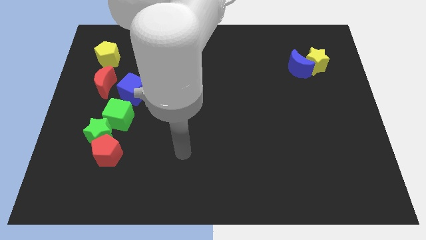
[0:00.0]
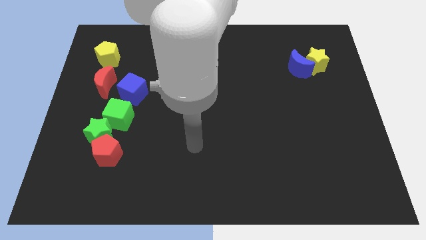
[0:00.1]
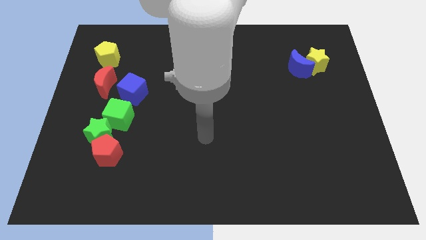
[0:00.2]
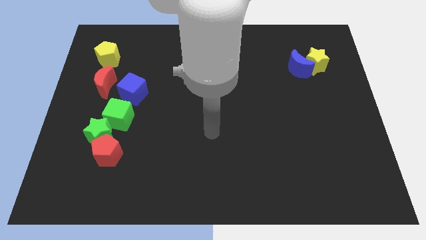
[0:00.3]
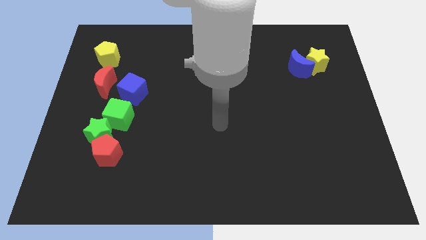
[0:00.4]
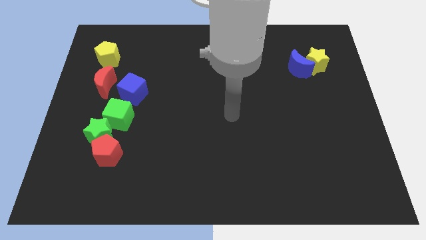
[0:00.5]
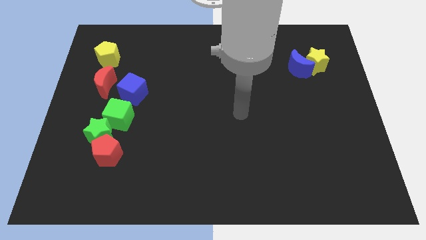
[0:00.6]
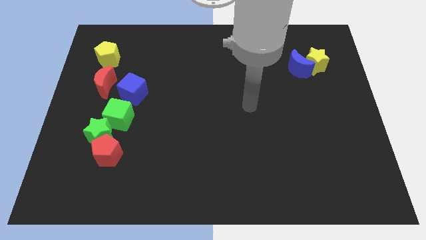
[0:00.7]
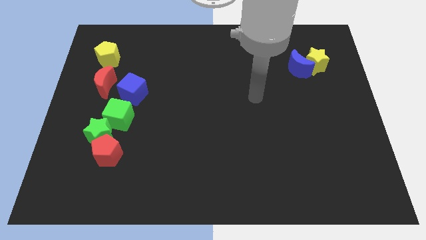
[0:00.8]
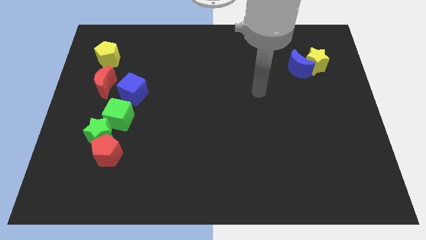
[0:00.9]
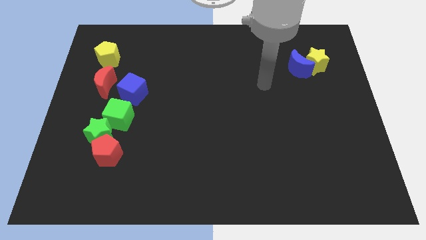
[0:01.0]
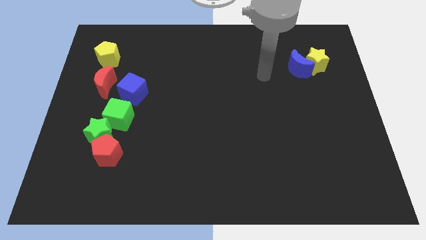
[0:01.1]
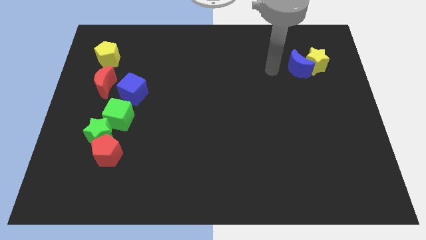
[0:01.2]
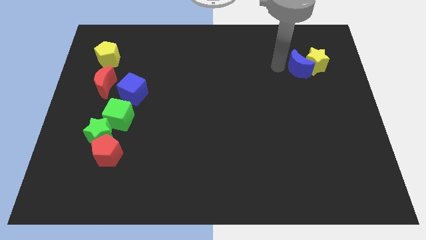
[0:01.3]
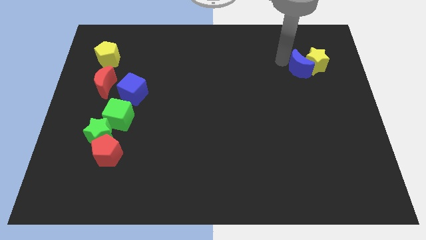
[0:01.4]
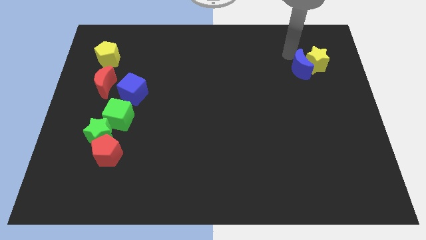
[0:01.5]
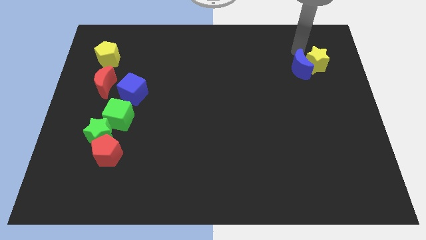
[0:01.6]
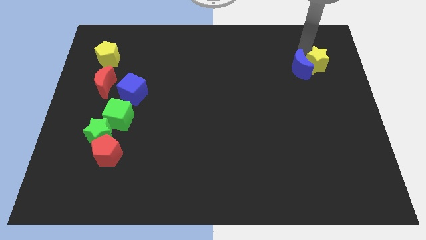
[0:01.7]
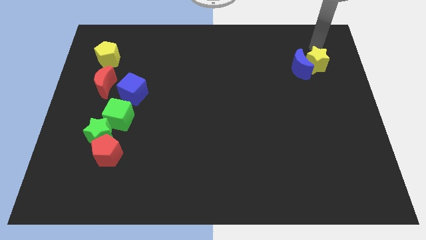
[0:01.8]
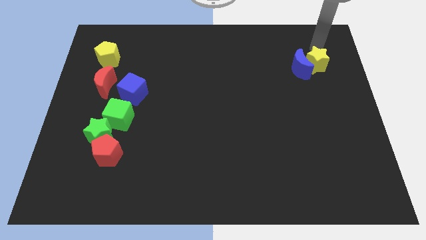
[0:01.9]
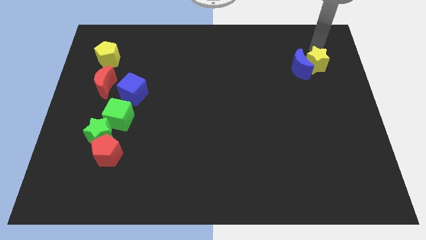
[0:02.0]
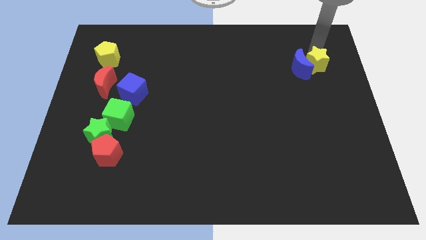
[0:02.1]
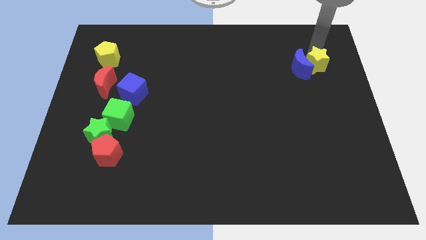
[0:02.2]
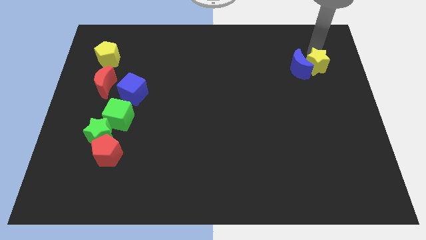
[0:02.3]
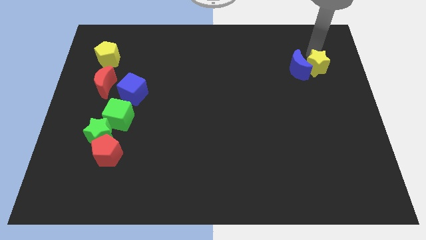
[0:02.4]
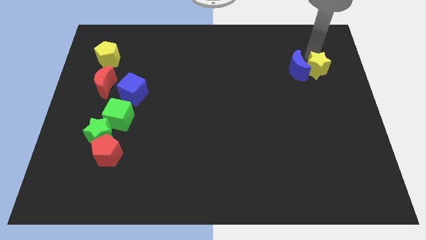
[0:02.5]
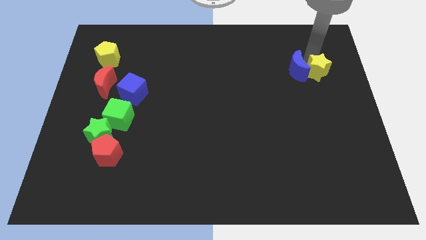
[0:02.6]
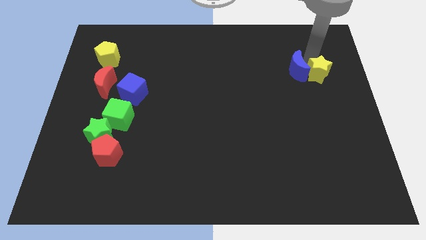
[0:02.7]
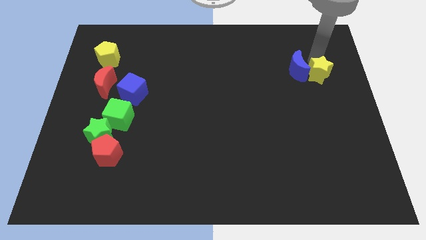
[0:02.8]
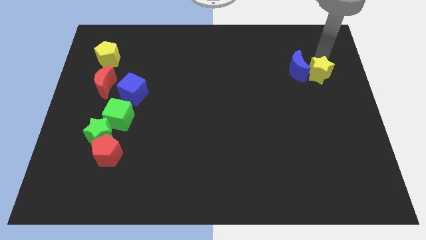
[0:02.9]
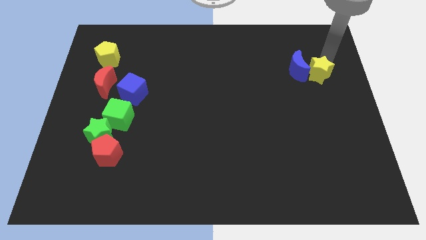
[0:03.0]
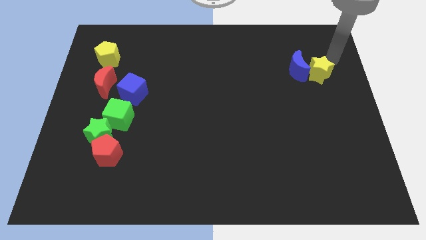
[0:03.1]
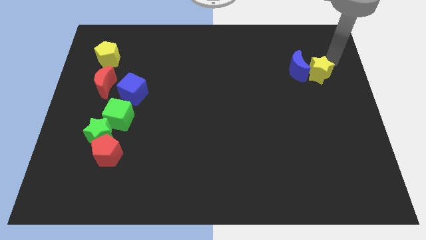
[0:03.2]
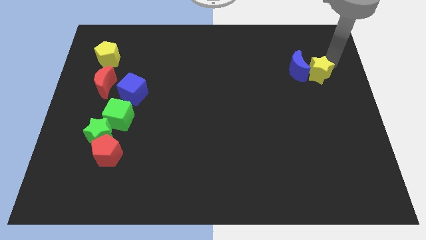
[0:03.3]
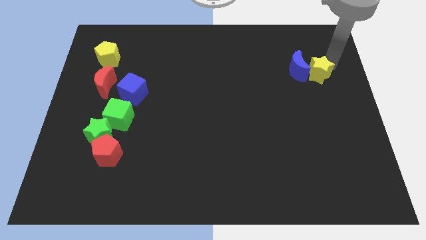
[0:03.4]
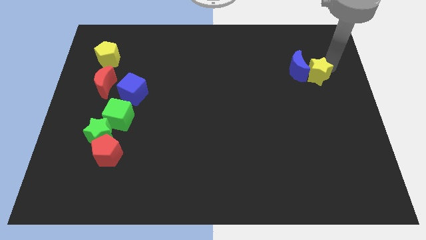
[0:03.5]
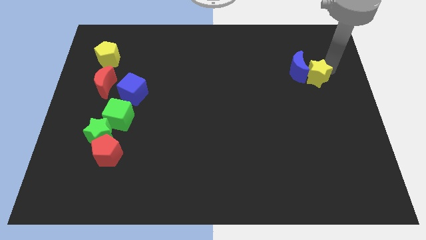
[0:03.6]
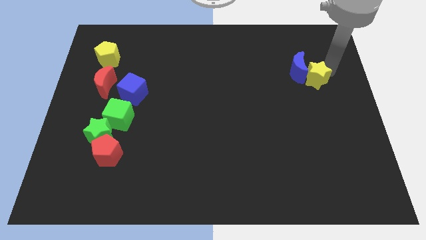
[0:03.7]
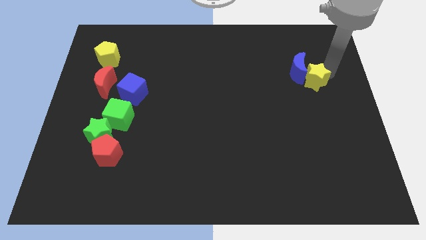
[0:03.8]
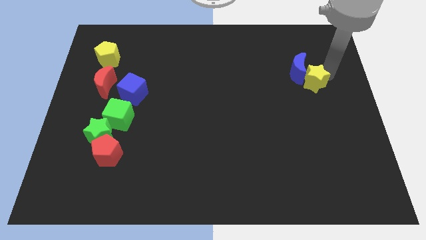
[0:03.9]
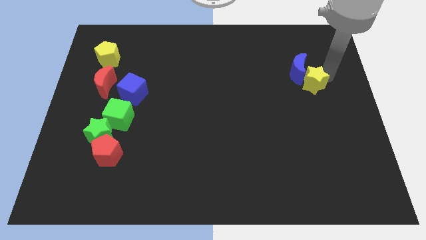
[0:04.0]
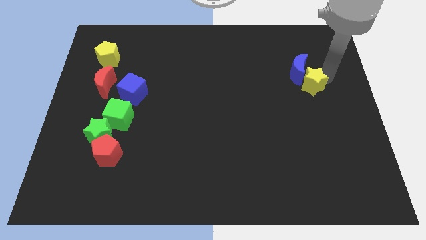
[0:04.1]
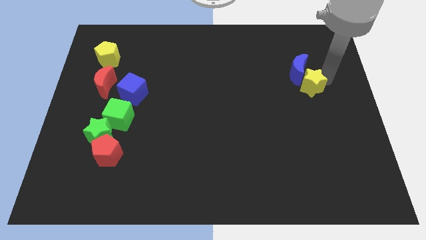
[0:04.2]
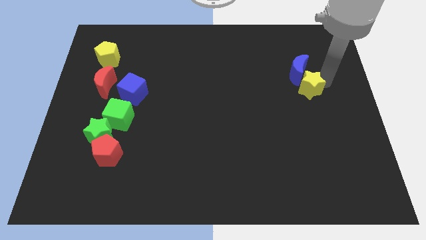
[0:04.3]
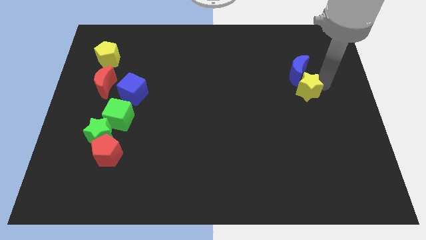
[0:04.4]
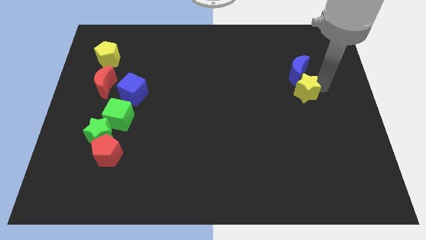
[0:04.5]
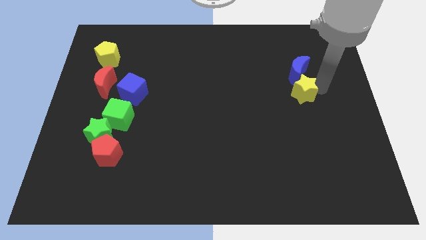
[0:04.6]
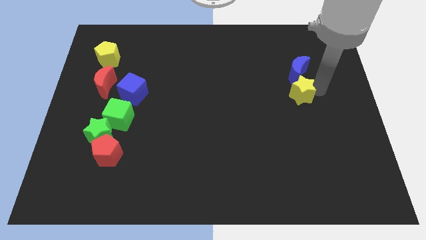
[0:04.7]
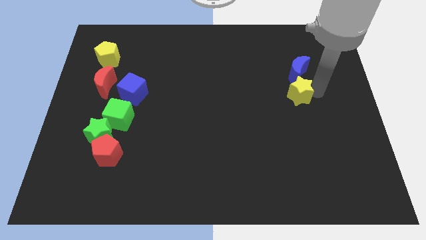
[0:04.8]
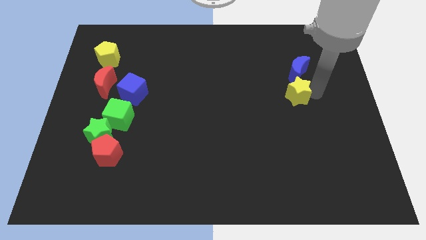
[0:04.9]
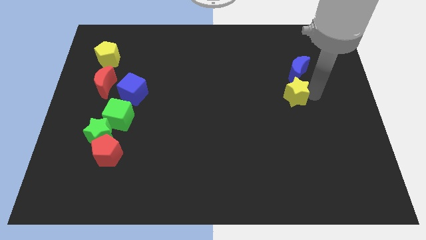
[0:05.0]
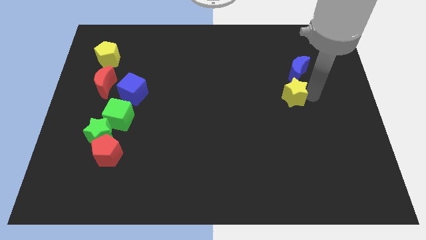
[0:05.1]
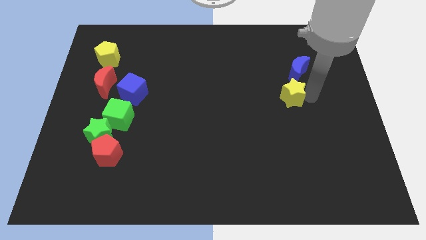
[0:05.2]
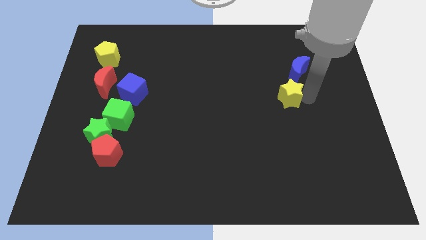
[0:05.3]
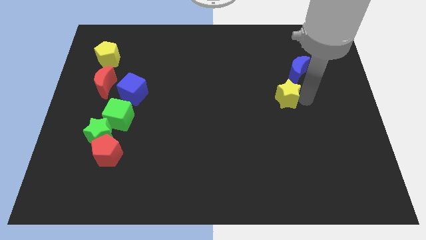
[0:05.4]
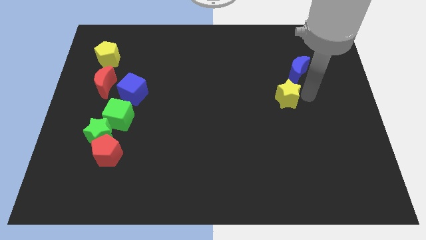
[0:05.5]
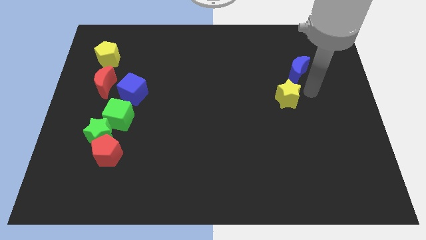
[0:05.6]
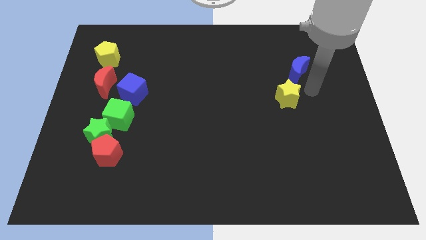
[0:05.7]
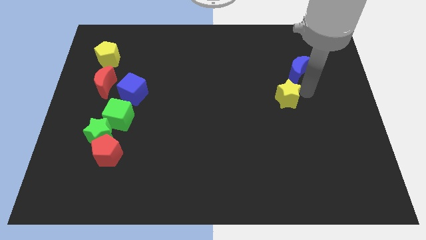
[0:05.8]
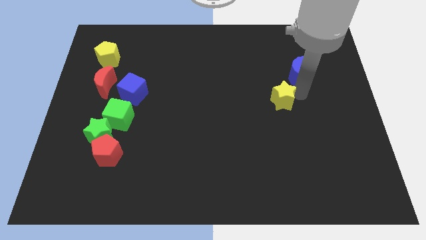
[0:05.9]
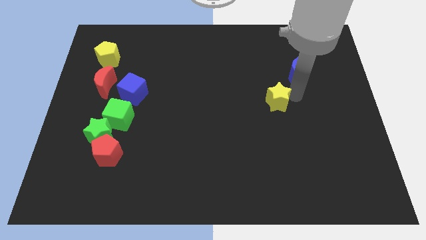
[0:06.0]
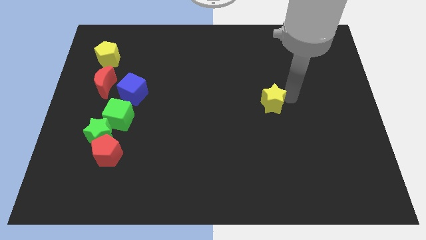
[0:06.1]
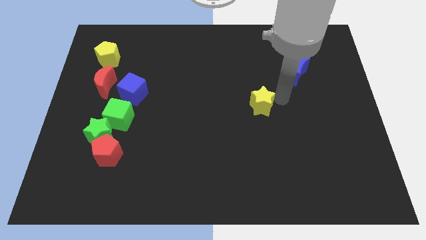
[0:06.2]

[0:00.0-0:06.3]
push the yellow star diagonally downwards and left

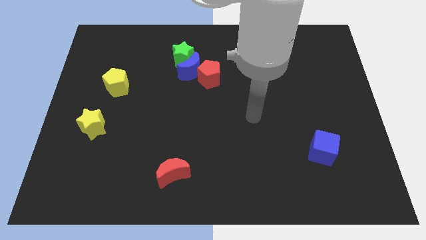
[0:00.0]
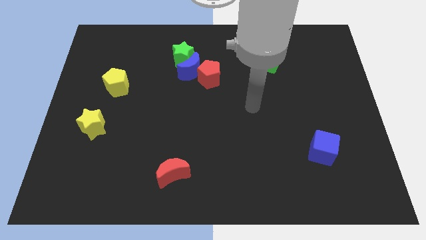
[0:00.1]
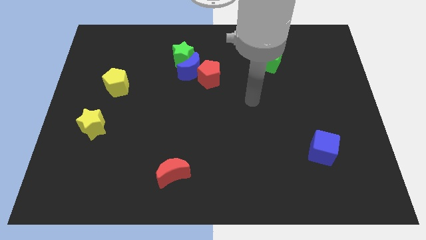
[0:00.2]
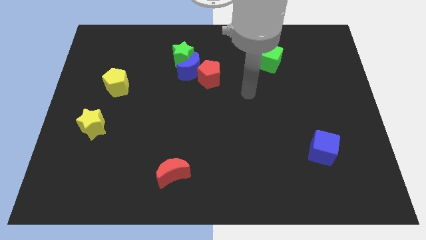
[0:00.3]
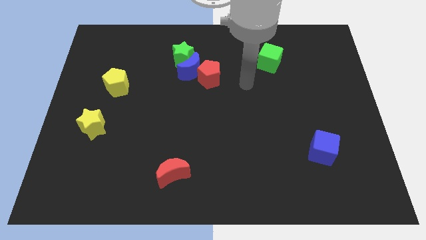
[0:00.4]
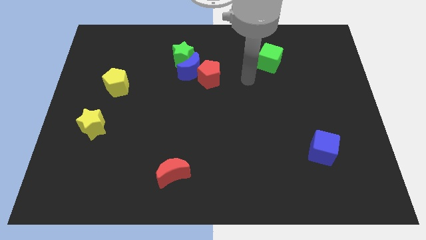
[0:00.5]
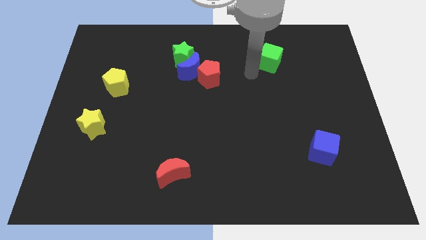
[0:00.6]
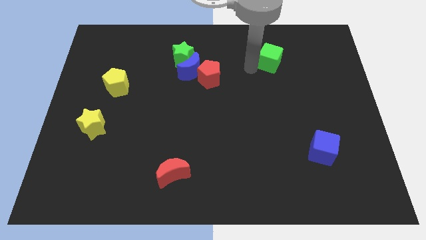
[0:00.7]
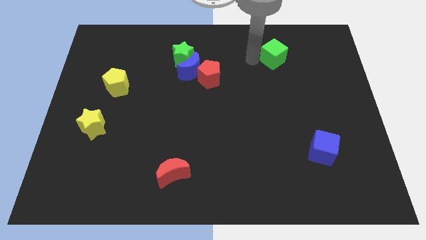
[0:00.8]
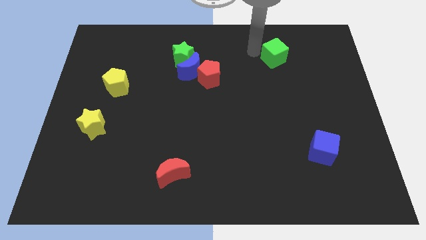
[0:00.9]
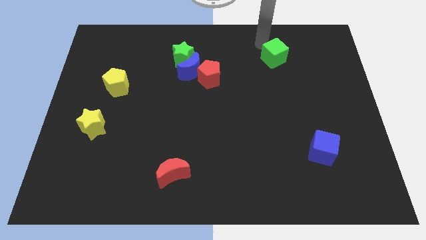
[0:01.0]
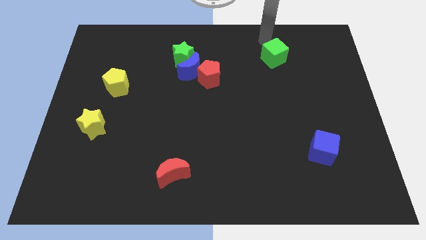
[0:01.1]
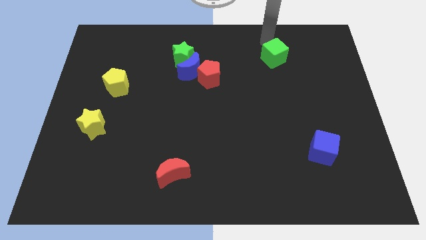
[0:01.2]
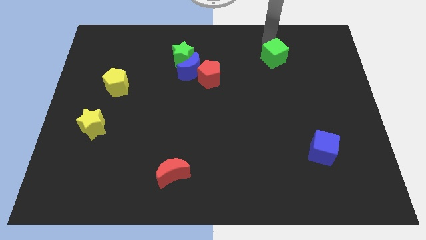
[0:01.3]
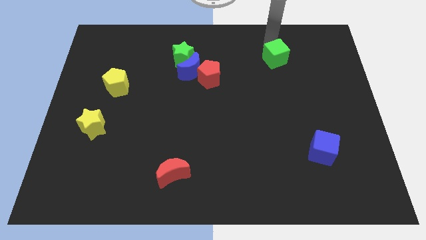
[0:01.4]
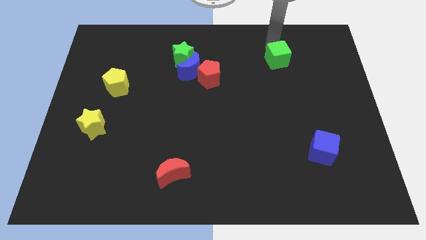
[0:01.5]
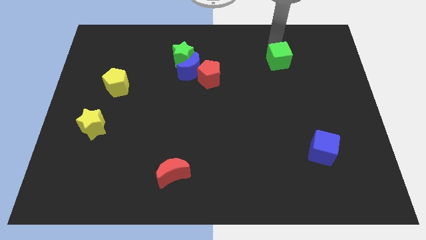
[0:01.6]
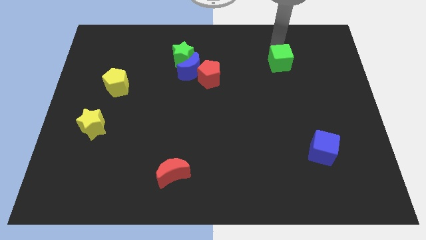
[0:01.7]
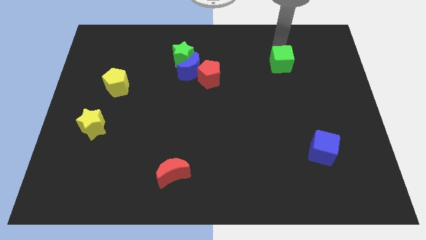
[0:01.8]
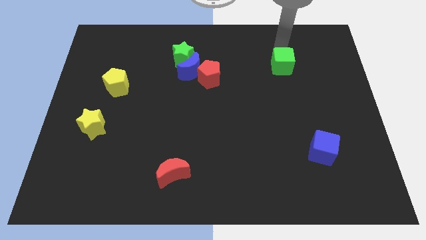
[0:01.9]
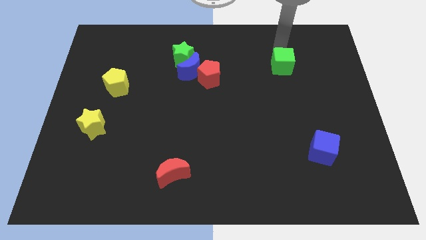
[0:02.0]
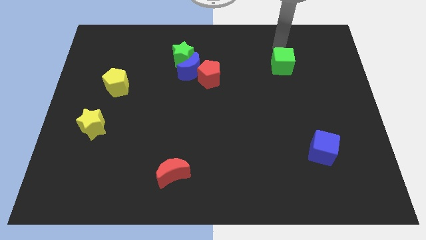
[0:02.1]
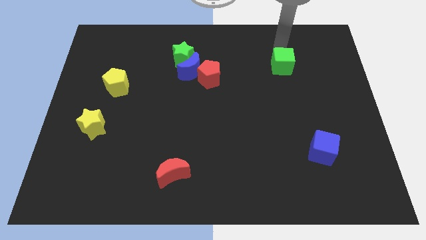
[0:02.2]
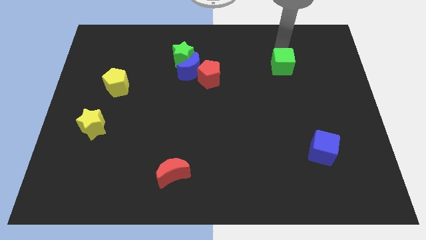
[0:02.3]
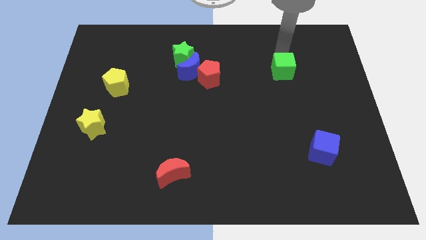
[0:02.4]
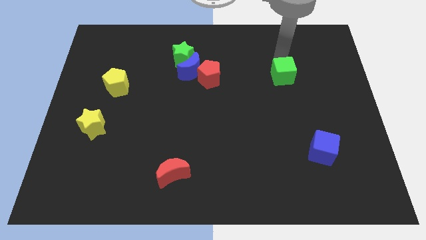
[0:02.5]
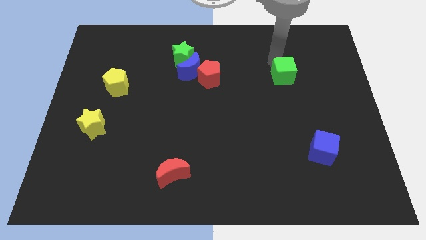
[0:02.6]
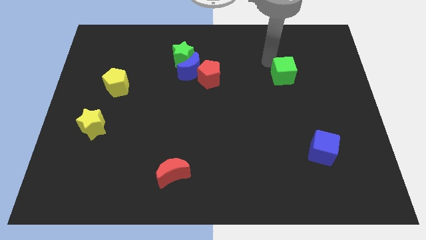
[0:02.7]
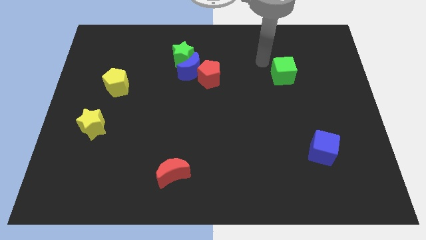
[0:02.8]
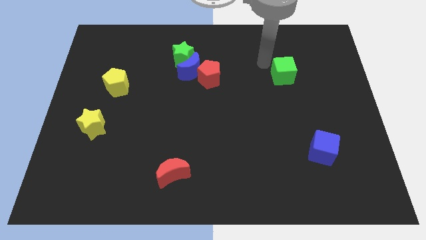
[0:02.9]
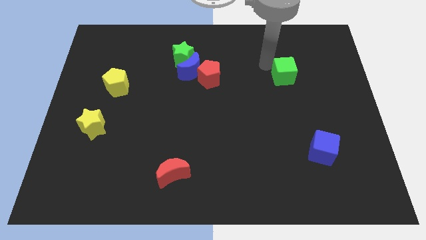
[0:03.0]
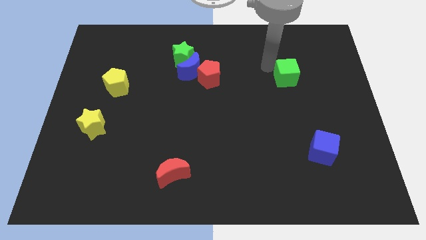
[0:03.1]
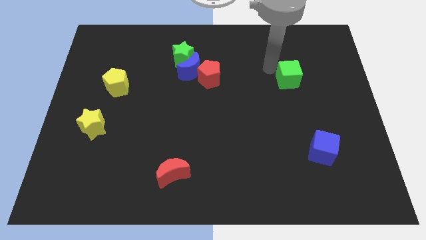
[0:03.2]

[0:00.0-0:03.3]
push the green cube downwards and right diagonally slightly
